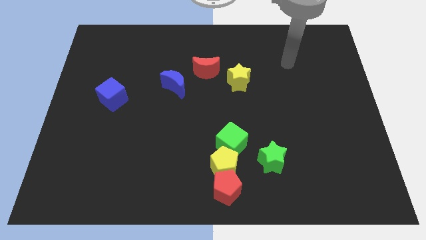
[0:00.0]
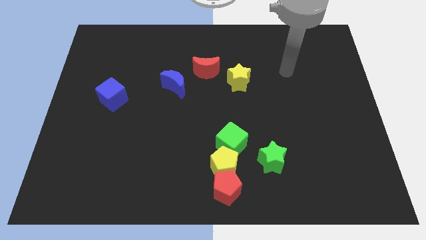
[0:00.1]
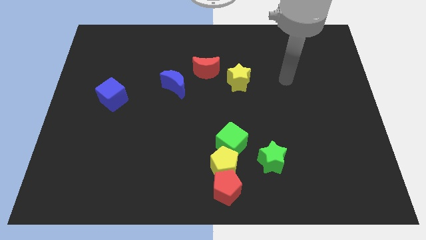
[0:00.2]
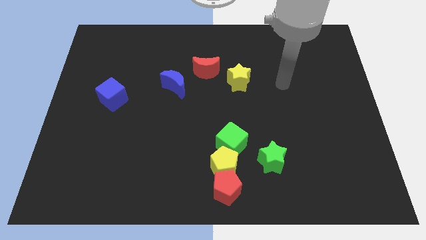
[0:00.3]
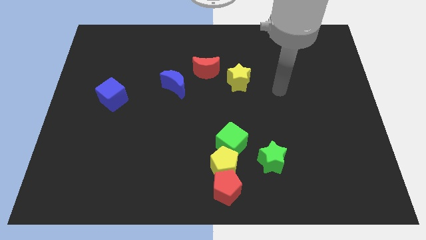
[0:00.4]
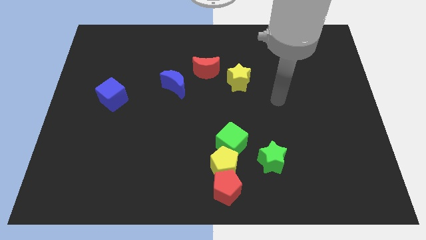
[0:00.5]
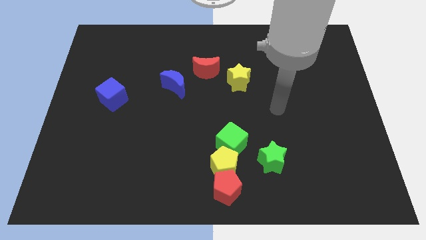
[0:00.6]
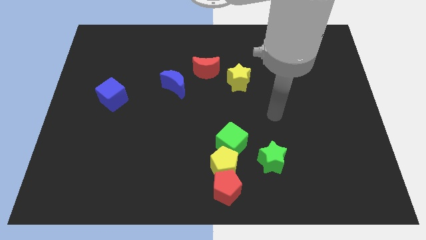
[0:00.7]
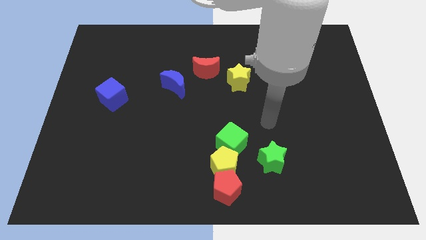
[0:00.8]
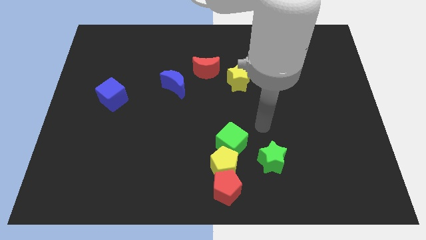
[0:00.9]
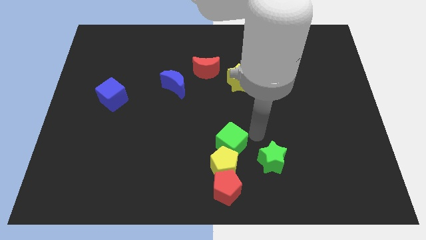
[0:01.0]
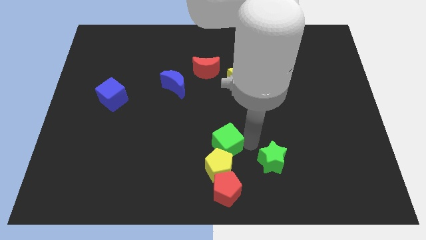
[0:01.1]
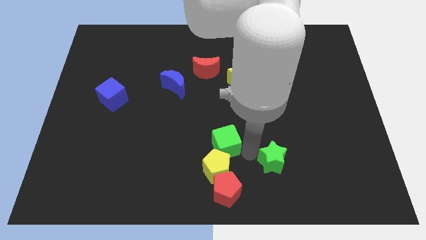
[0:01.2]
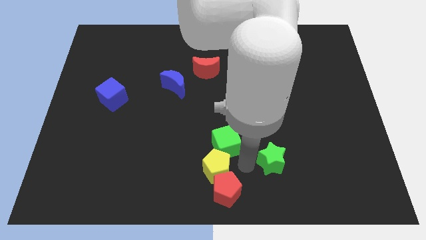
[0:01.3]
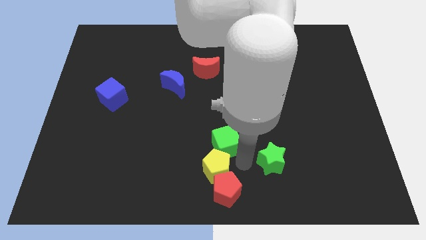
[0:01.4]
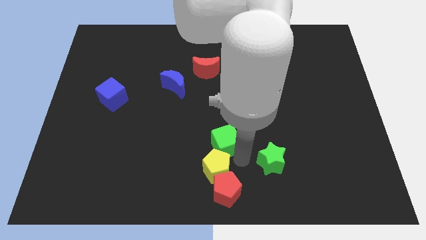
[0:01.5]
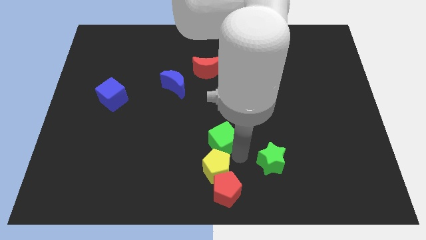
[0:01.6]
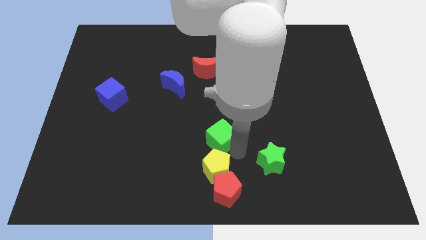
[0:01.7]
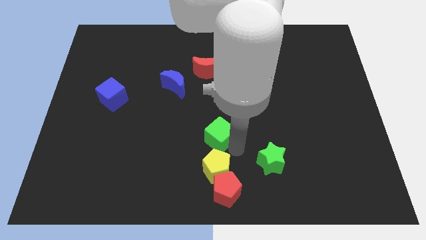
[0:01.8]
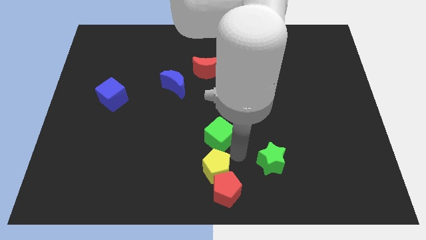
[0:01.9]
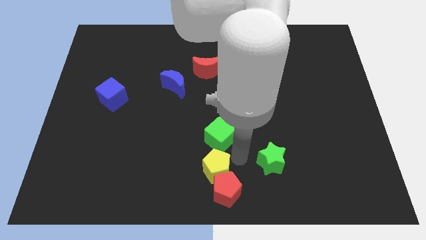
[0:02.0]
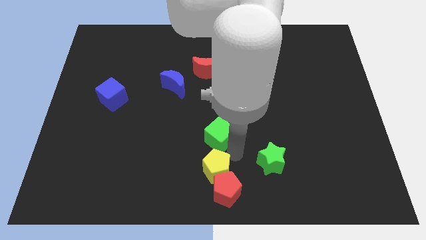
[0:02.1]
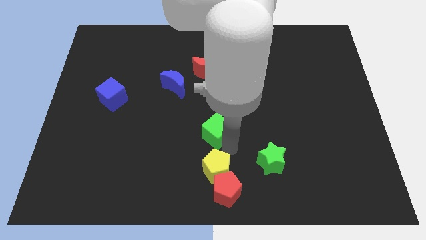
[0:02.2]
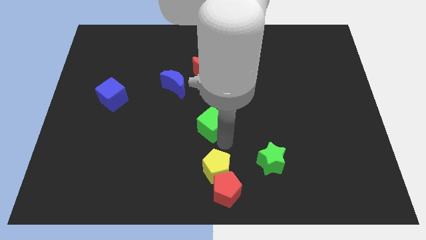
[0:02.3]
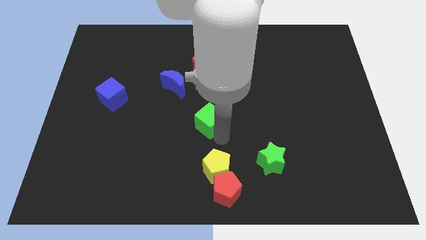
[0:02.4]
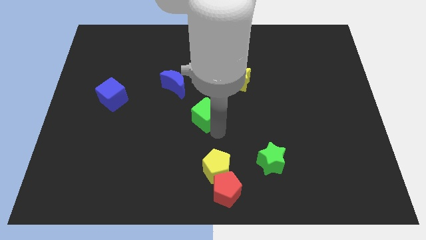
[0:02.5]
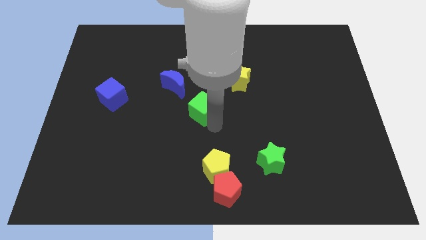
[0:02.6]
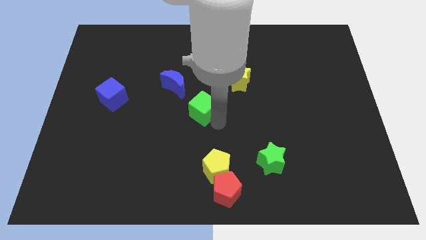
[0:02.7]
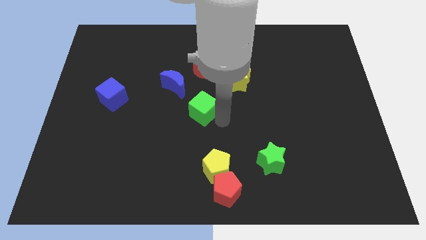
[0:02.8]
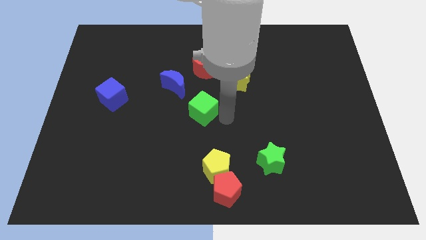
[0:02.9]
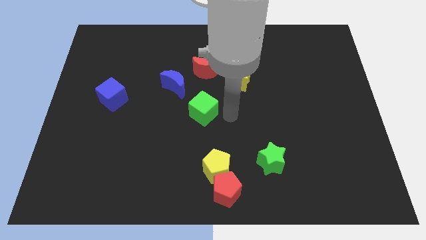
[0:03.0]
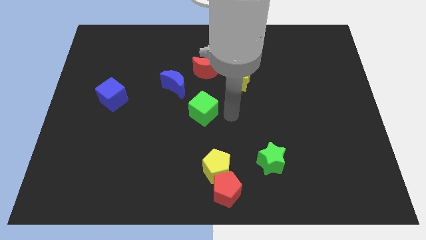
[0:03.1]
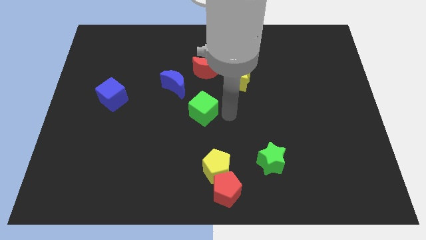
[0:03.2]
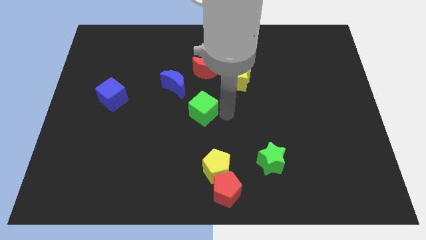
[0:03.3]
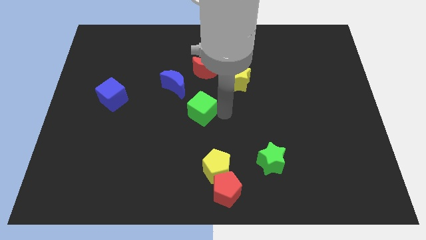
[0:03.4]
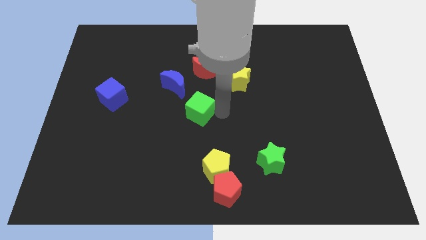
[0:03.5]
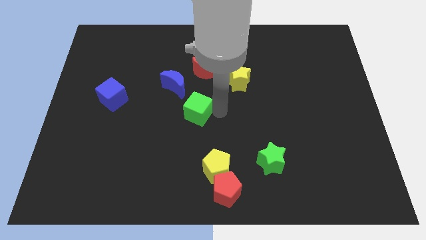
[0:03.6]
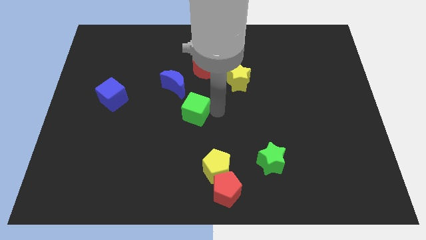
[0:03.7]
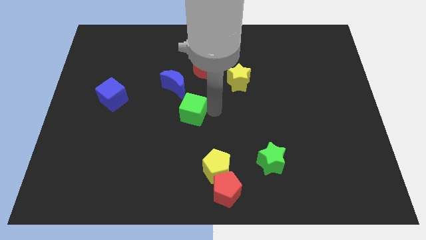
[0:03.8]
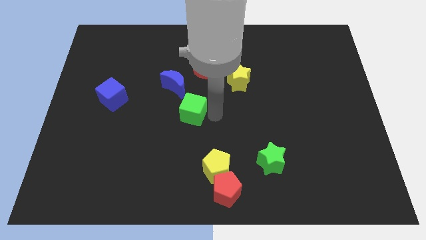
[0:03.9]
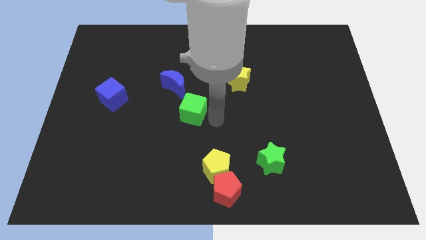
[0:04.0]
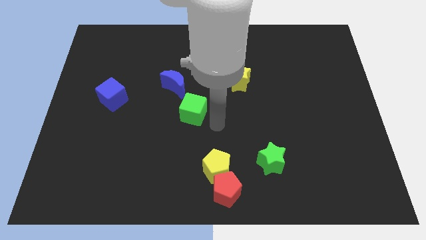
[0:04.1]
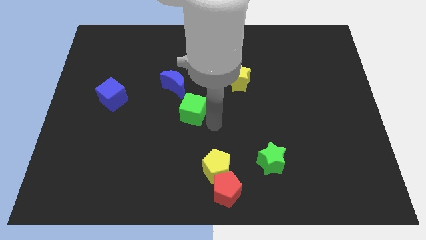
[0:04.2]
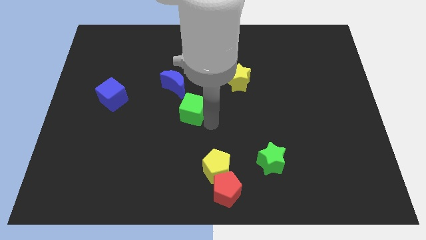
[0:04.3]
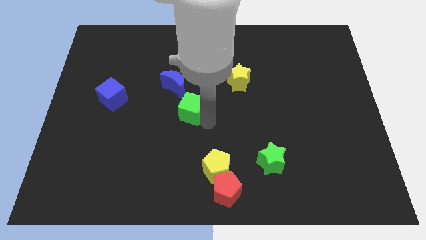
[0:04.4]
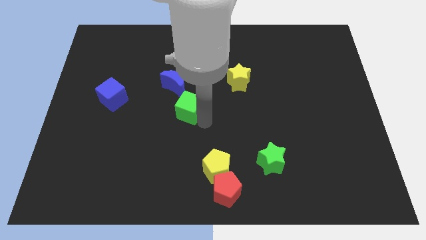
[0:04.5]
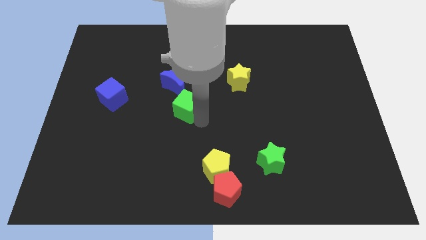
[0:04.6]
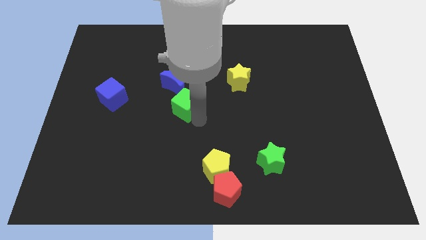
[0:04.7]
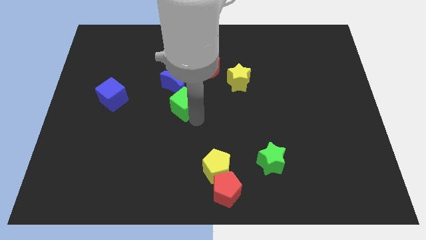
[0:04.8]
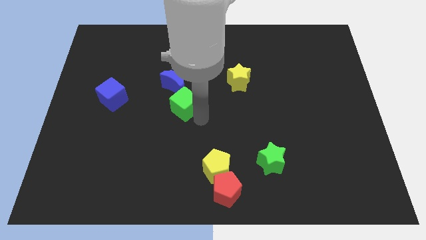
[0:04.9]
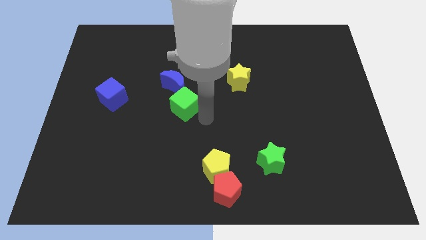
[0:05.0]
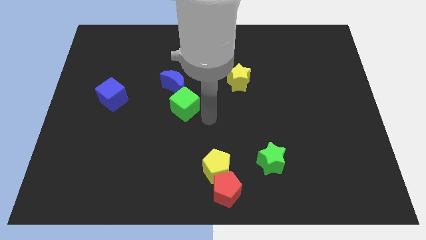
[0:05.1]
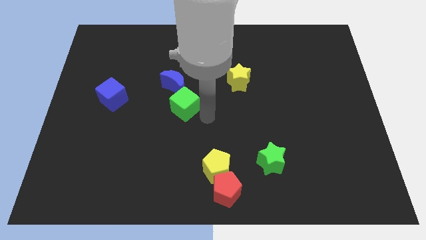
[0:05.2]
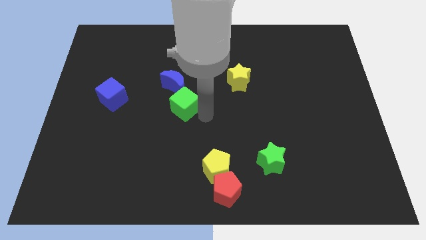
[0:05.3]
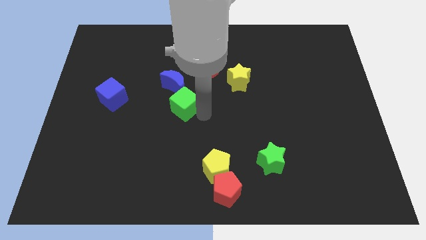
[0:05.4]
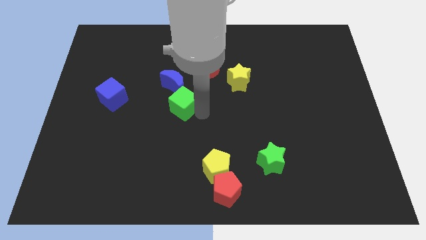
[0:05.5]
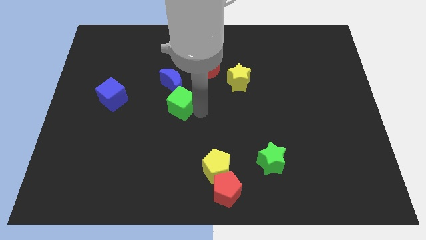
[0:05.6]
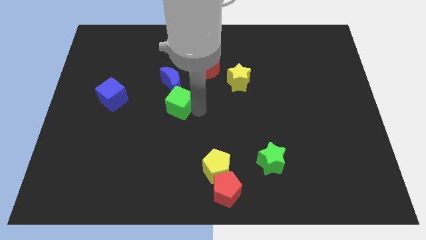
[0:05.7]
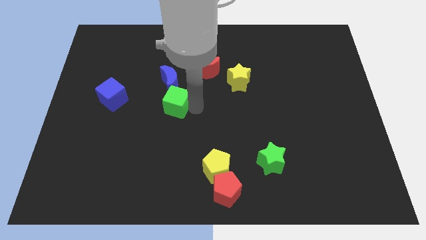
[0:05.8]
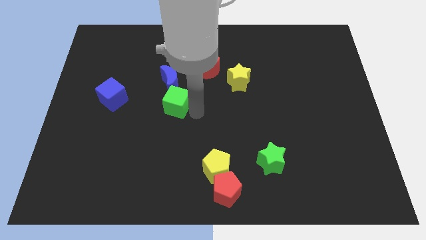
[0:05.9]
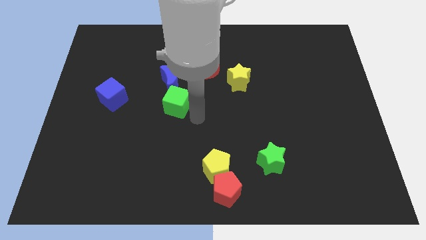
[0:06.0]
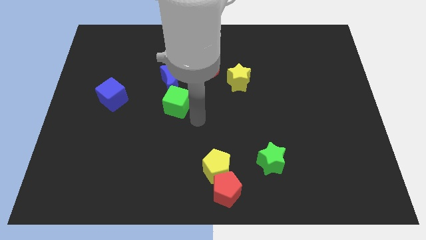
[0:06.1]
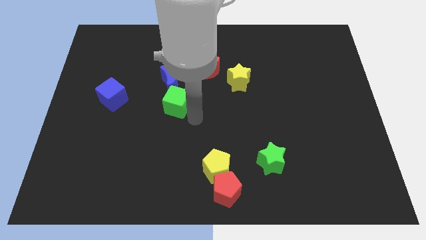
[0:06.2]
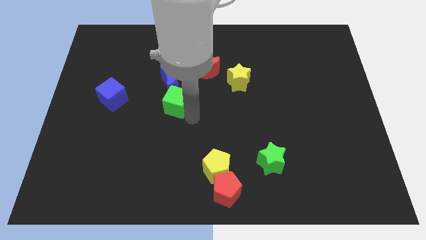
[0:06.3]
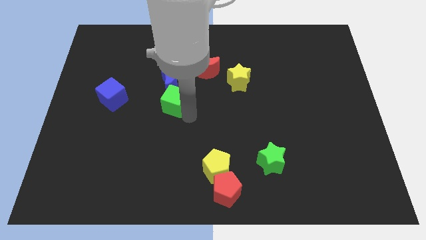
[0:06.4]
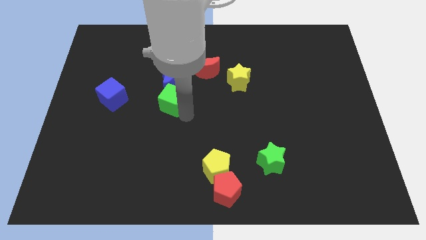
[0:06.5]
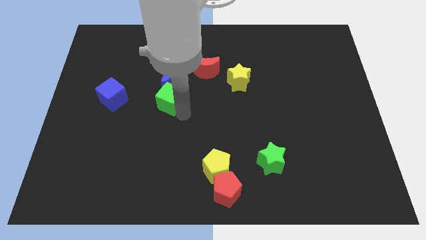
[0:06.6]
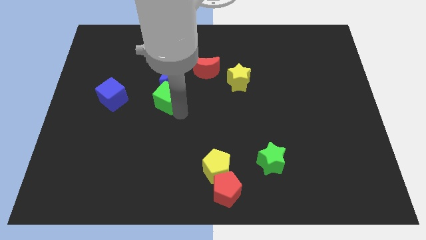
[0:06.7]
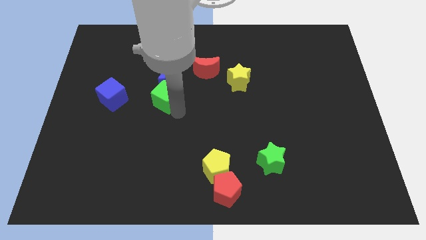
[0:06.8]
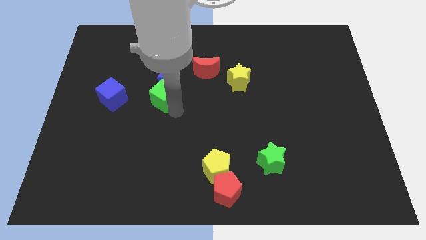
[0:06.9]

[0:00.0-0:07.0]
slide the green cube diagonally upwards and to the left

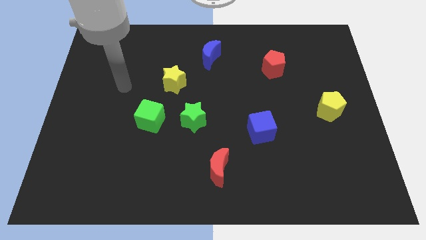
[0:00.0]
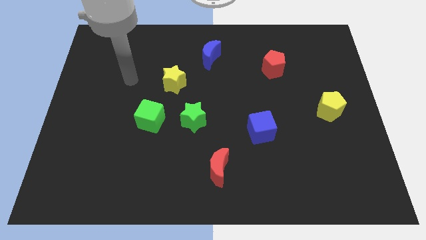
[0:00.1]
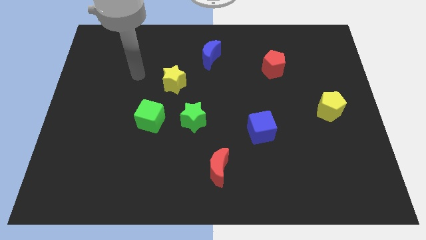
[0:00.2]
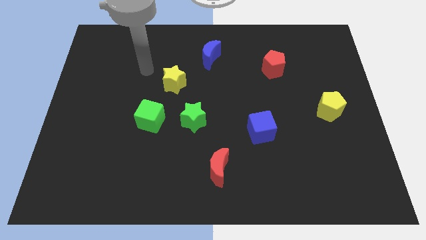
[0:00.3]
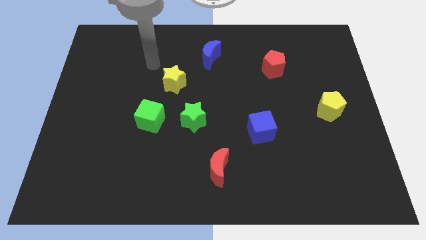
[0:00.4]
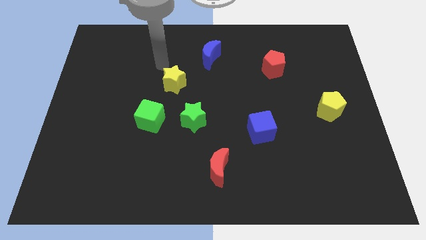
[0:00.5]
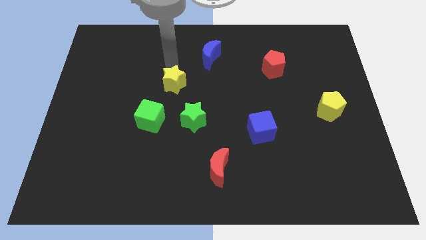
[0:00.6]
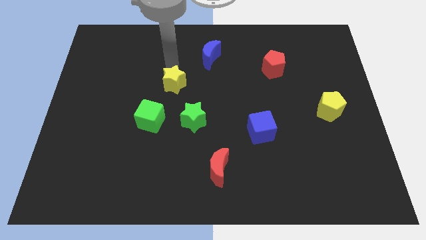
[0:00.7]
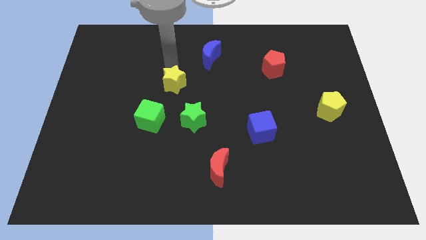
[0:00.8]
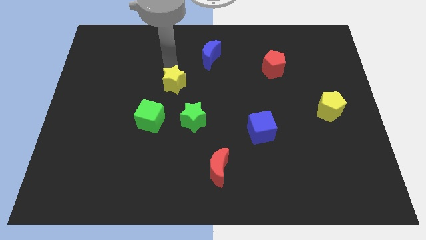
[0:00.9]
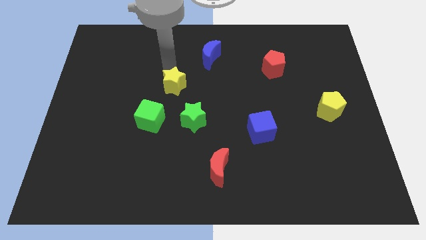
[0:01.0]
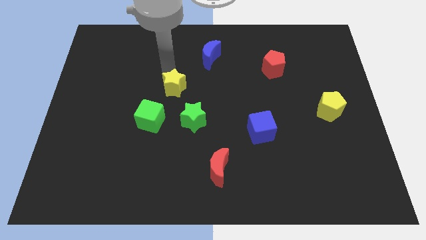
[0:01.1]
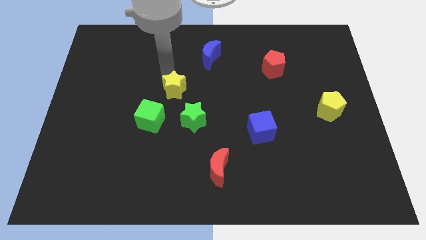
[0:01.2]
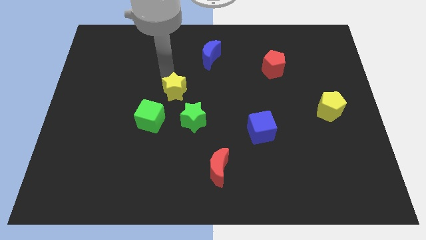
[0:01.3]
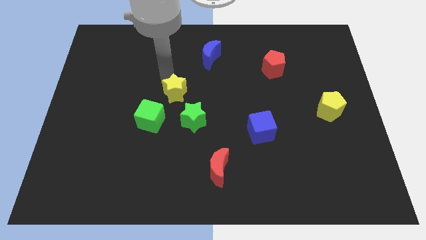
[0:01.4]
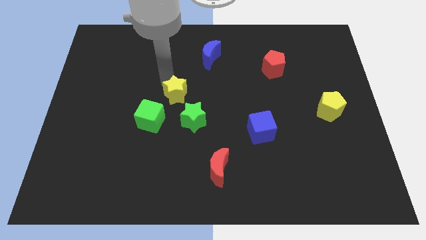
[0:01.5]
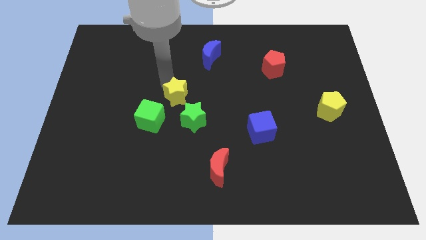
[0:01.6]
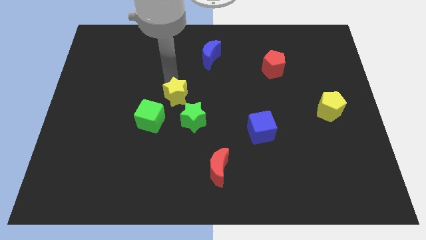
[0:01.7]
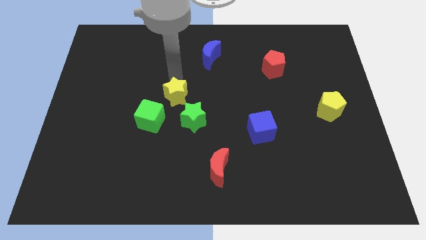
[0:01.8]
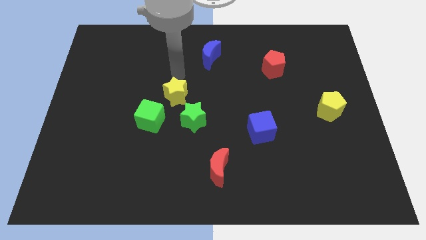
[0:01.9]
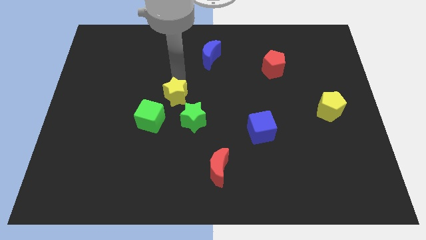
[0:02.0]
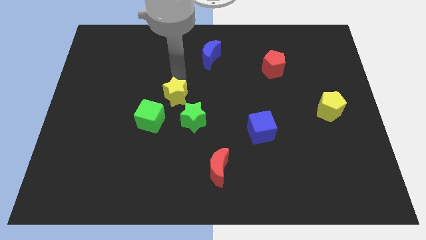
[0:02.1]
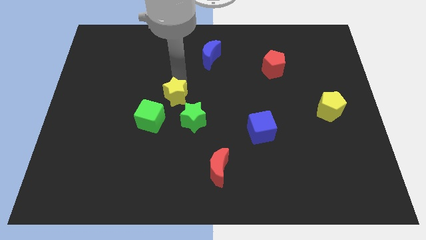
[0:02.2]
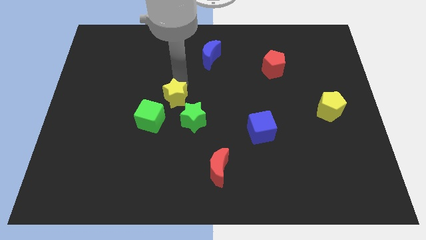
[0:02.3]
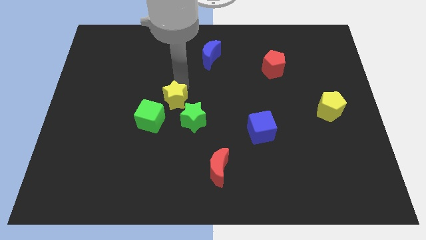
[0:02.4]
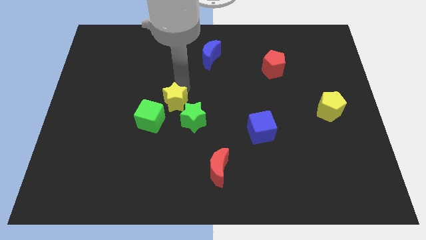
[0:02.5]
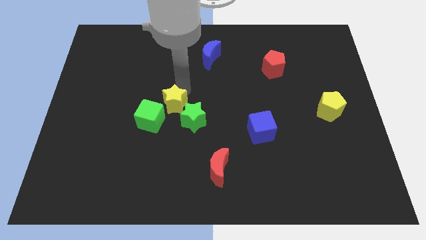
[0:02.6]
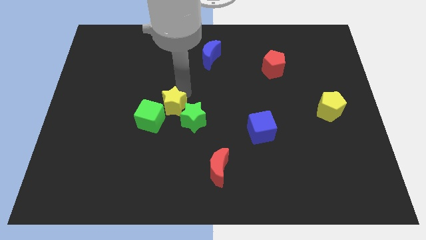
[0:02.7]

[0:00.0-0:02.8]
push the yellow star a little bit downwards
